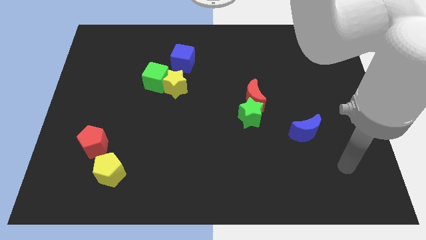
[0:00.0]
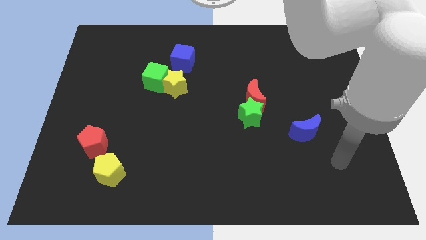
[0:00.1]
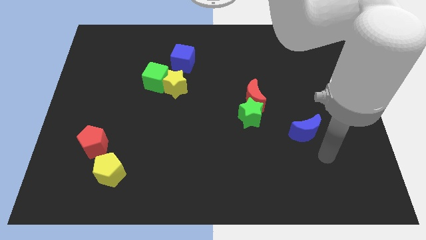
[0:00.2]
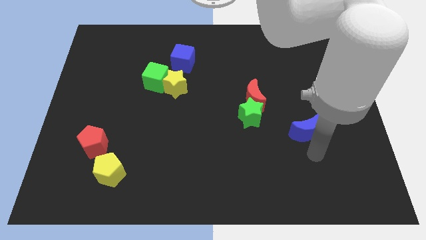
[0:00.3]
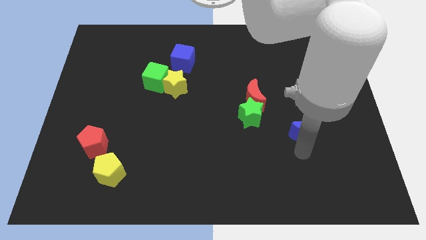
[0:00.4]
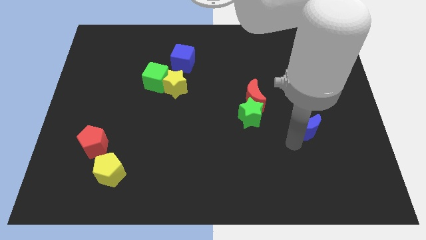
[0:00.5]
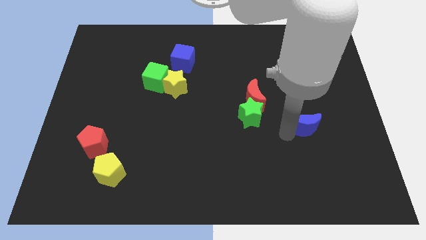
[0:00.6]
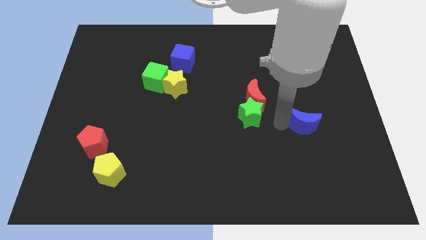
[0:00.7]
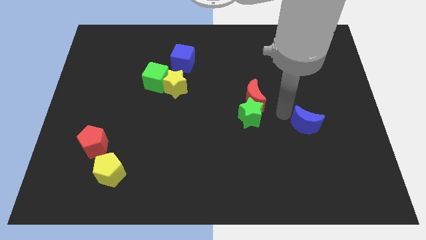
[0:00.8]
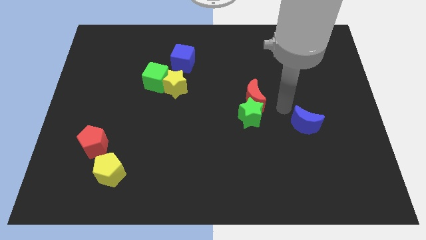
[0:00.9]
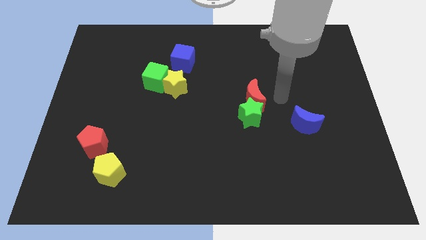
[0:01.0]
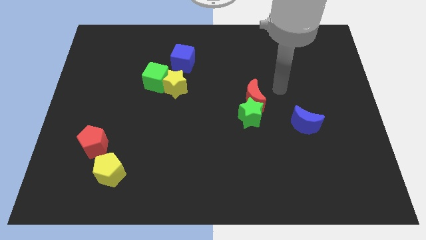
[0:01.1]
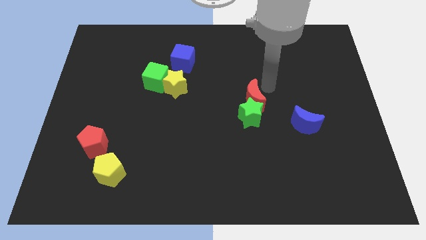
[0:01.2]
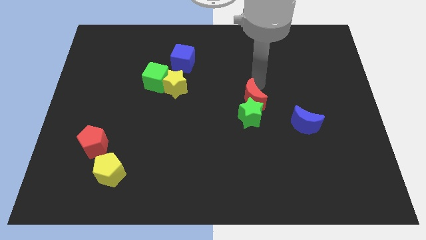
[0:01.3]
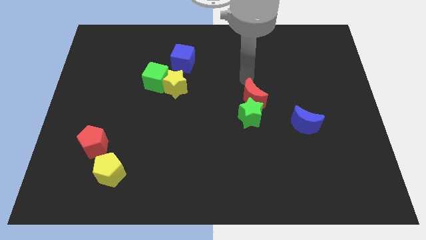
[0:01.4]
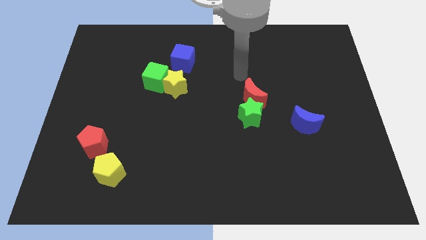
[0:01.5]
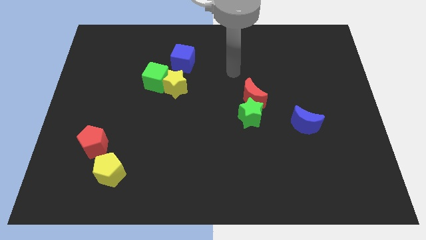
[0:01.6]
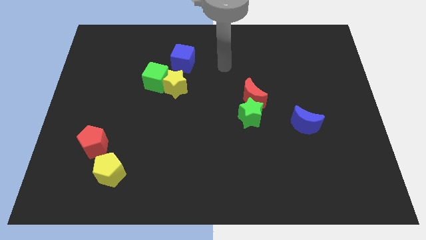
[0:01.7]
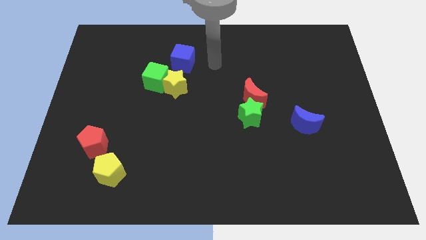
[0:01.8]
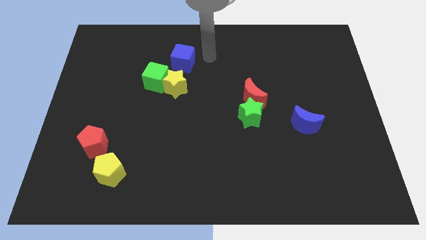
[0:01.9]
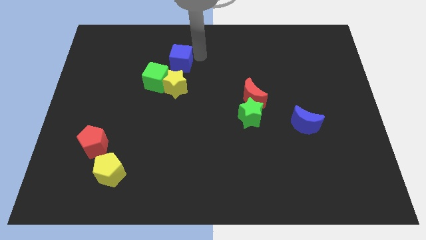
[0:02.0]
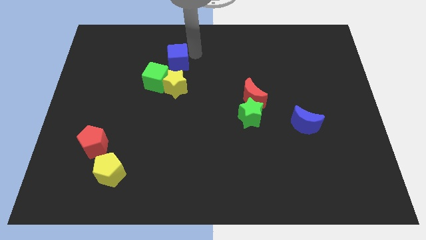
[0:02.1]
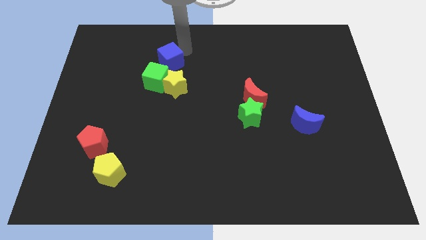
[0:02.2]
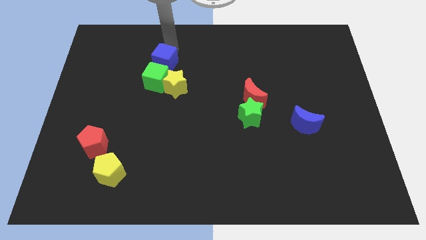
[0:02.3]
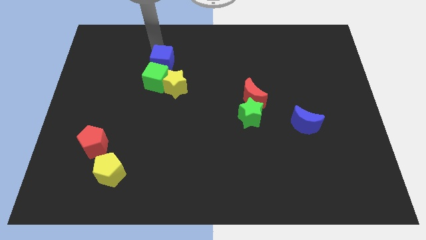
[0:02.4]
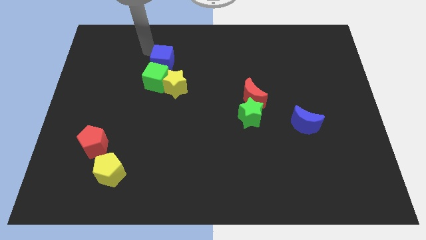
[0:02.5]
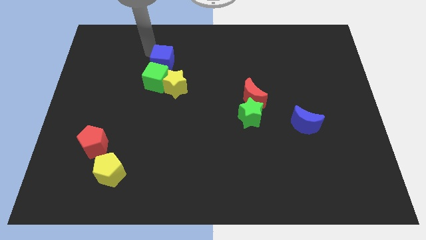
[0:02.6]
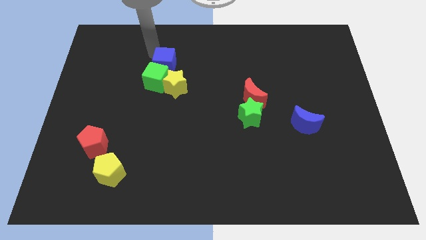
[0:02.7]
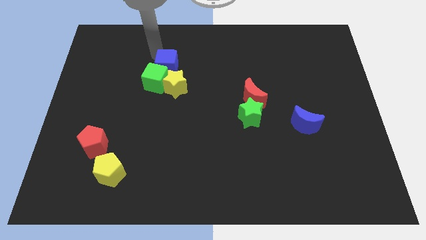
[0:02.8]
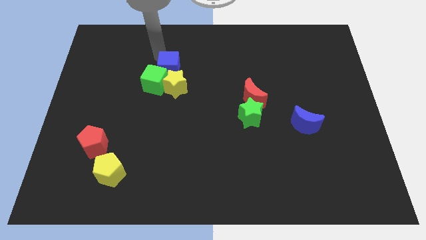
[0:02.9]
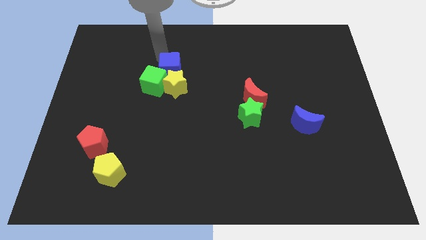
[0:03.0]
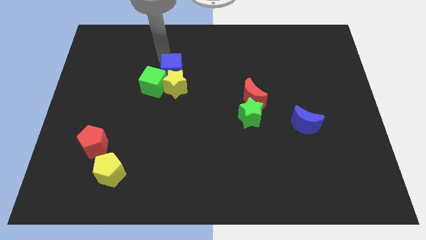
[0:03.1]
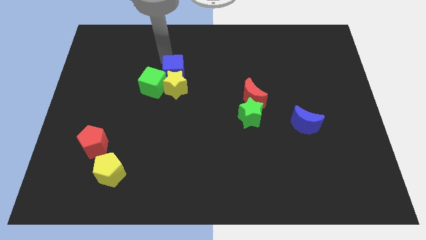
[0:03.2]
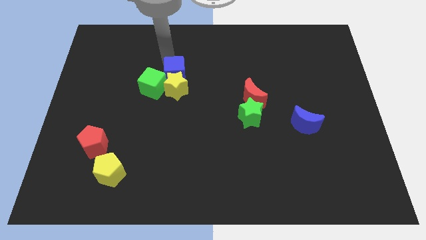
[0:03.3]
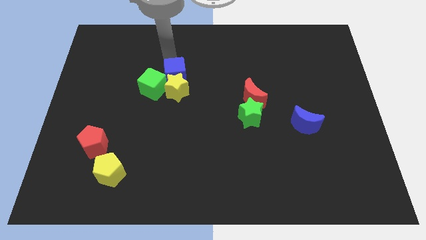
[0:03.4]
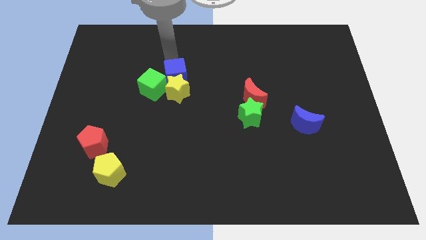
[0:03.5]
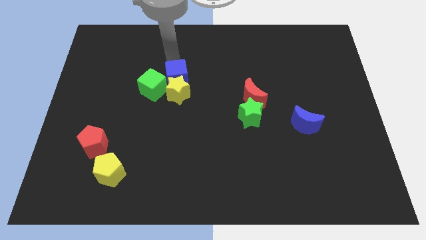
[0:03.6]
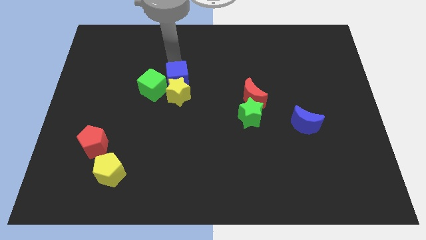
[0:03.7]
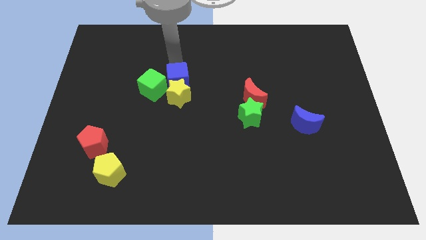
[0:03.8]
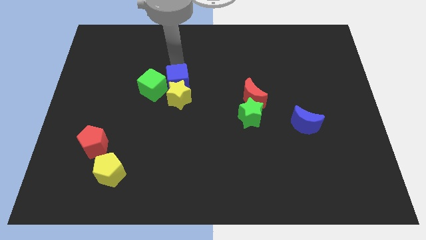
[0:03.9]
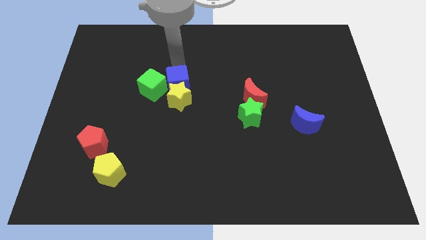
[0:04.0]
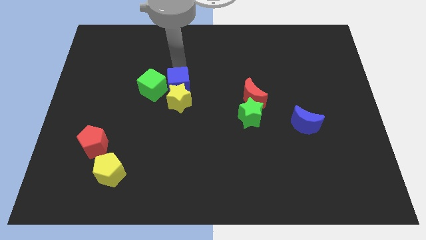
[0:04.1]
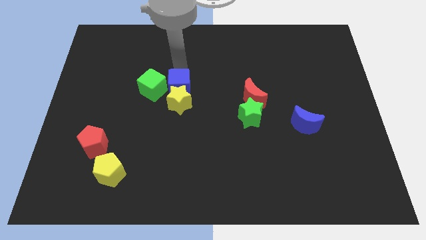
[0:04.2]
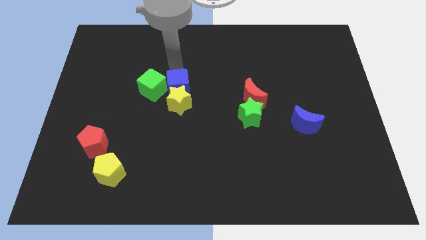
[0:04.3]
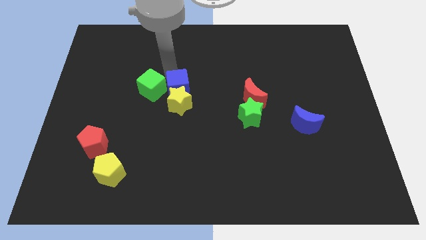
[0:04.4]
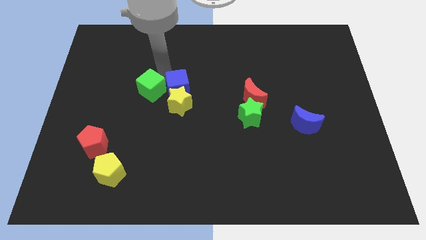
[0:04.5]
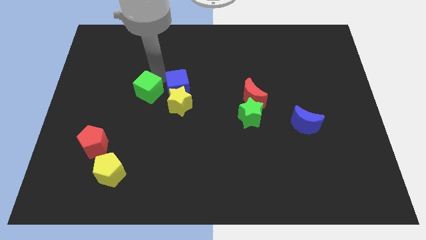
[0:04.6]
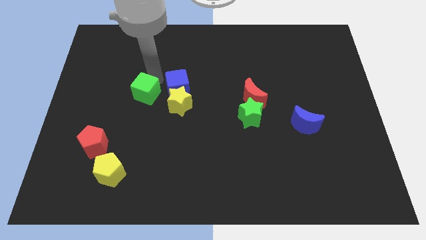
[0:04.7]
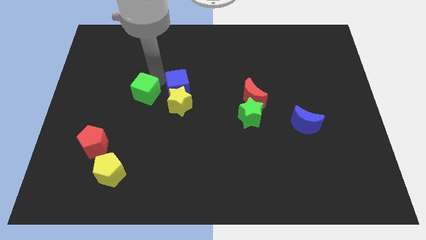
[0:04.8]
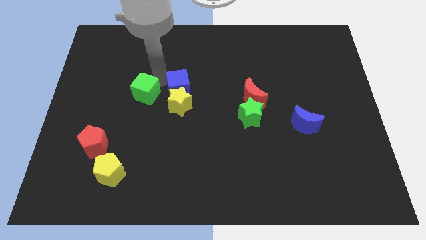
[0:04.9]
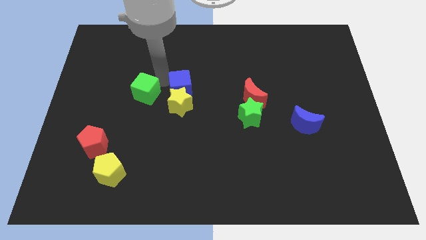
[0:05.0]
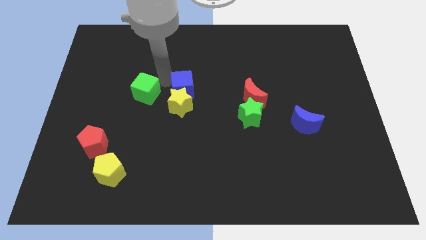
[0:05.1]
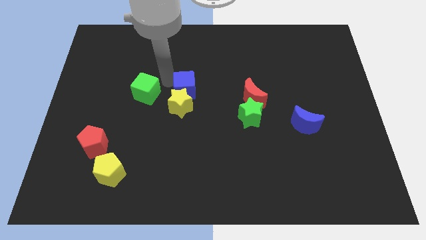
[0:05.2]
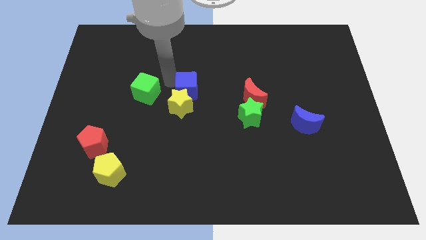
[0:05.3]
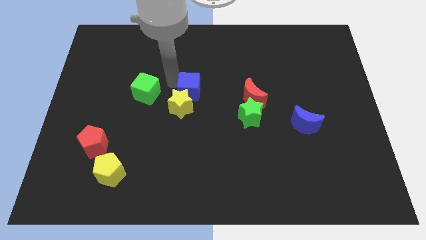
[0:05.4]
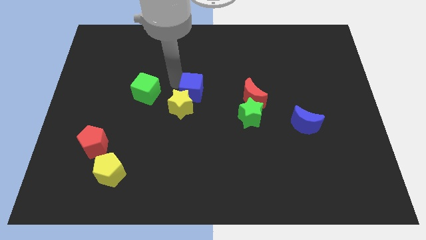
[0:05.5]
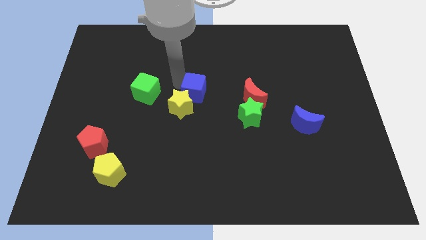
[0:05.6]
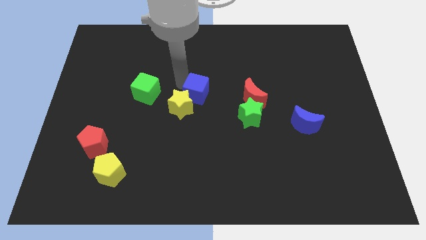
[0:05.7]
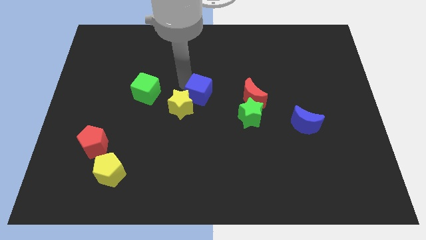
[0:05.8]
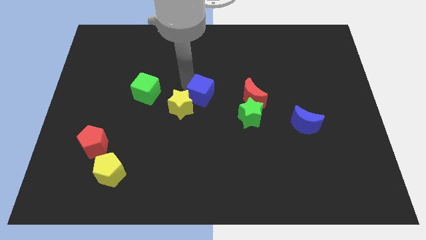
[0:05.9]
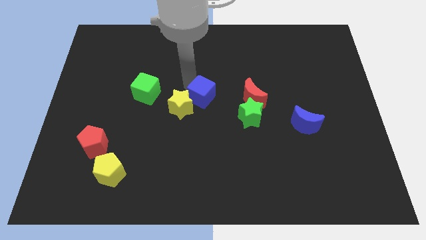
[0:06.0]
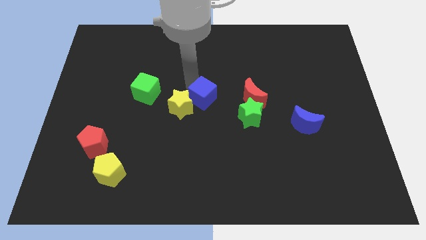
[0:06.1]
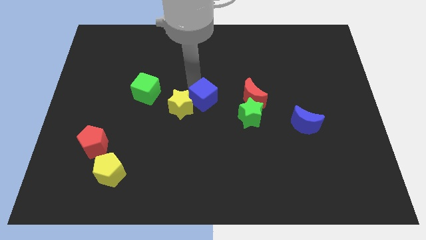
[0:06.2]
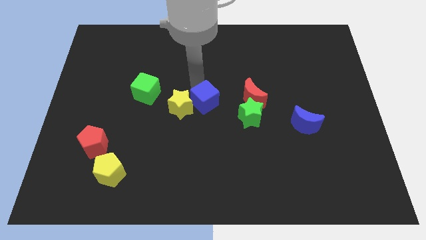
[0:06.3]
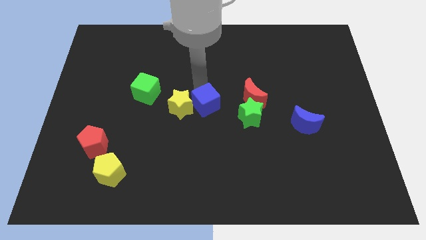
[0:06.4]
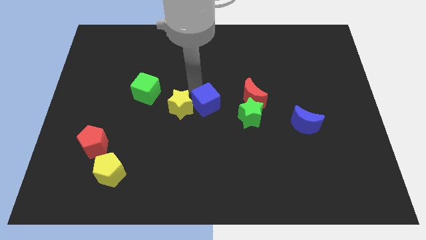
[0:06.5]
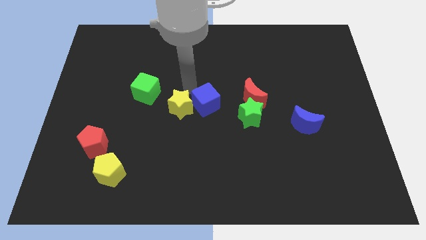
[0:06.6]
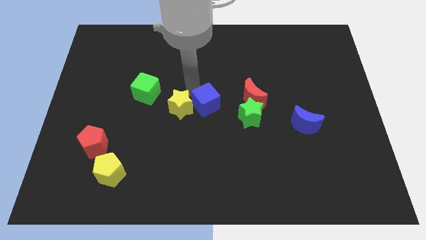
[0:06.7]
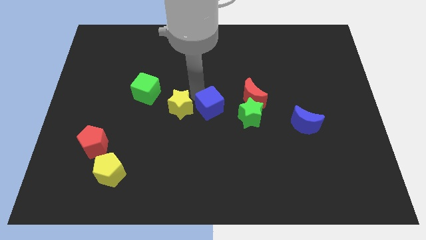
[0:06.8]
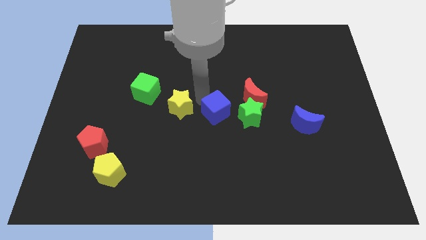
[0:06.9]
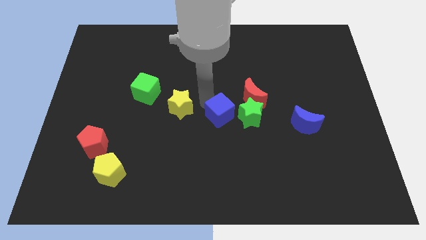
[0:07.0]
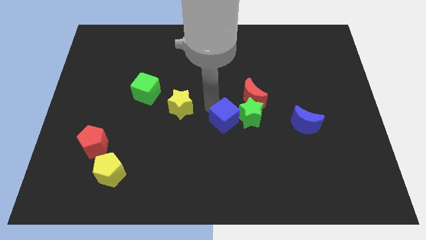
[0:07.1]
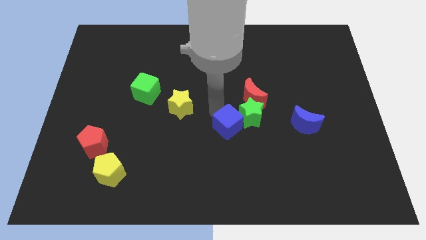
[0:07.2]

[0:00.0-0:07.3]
push the blue cube down and to the right diagonally

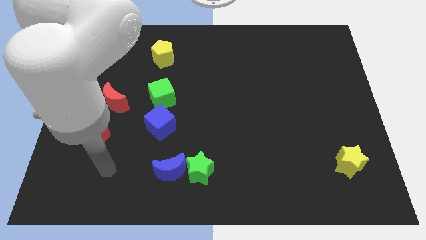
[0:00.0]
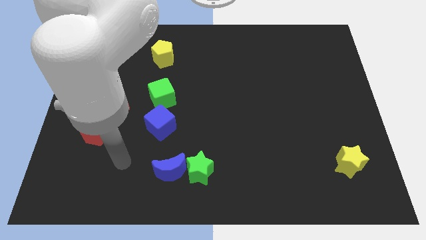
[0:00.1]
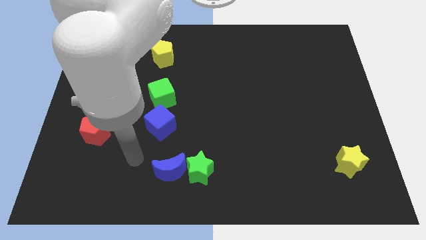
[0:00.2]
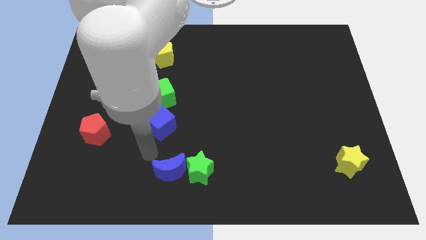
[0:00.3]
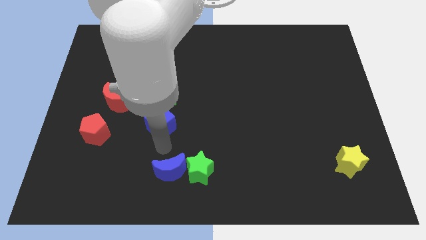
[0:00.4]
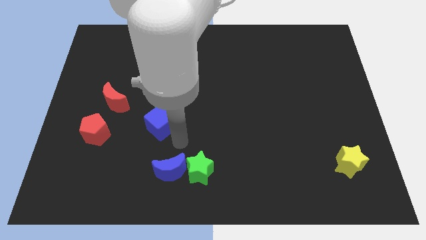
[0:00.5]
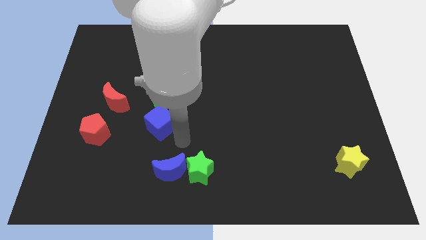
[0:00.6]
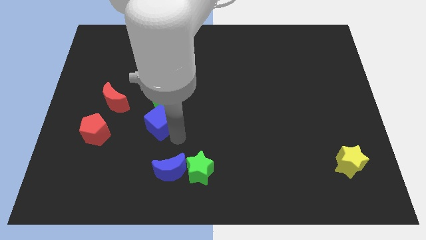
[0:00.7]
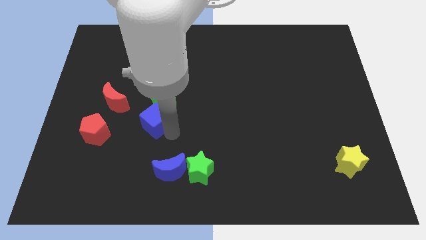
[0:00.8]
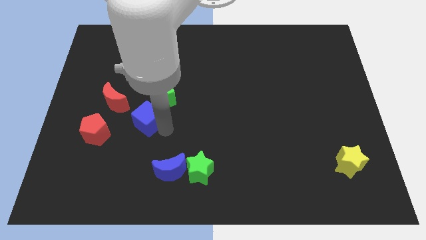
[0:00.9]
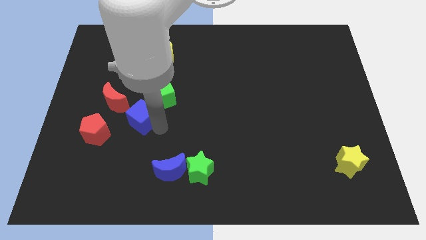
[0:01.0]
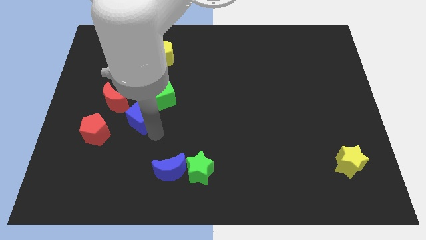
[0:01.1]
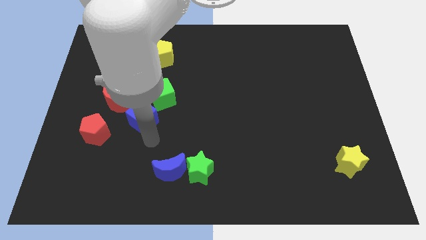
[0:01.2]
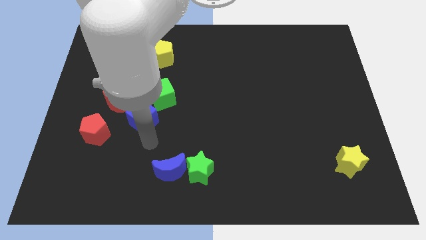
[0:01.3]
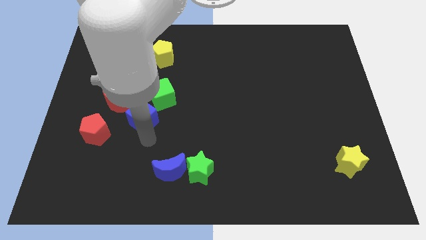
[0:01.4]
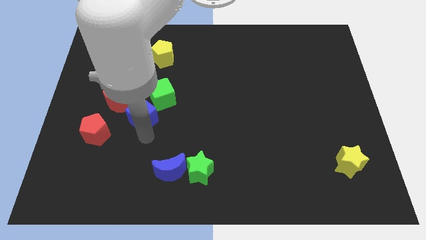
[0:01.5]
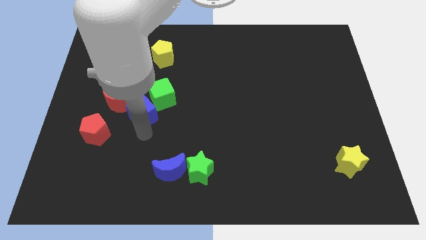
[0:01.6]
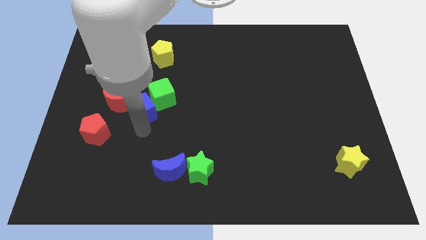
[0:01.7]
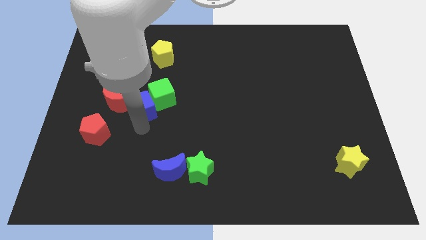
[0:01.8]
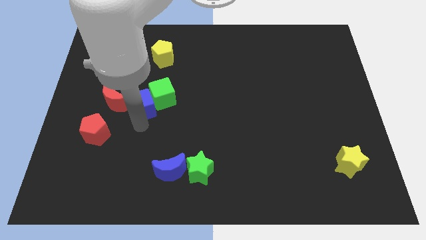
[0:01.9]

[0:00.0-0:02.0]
slide the blue cube a bit upwards and to the left diagonally
